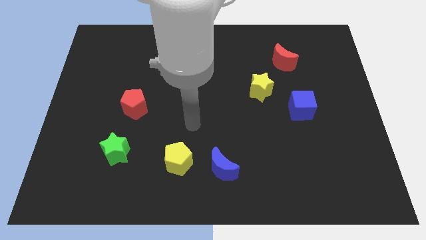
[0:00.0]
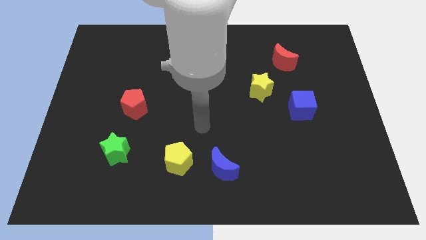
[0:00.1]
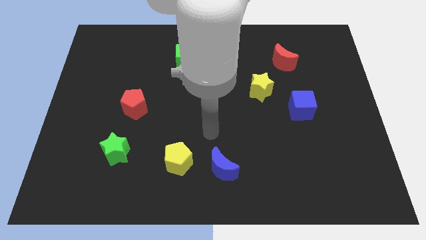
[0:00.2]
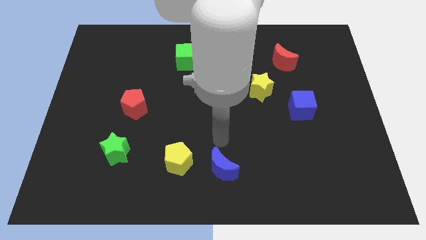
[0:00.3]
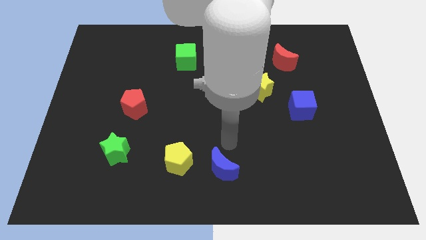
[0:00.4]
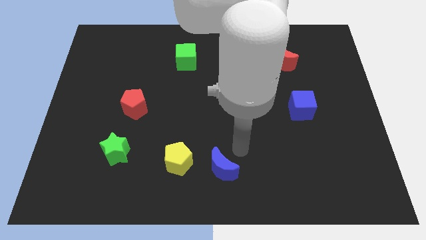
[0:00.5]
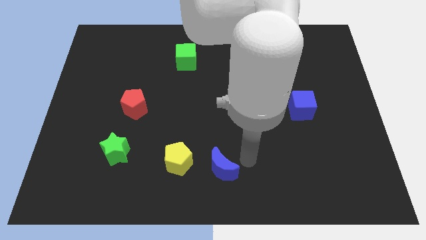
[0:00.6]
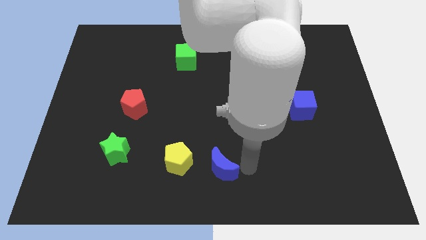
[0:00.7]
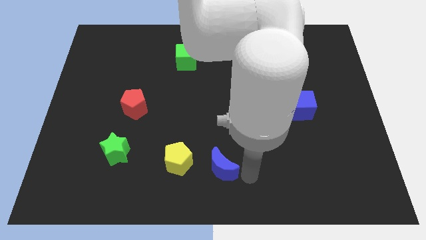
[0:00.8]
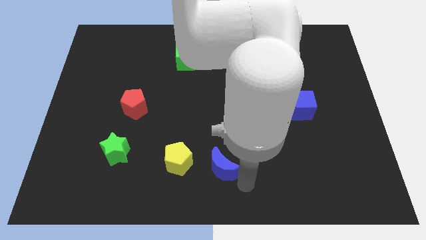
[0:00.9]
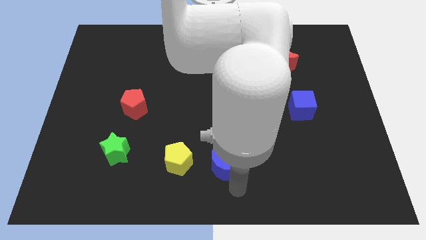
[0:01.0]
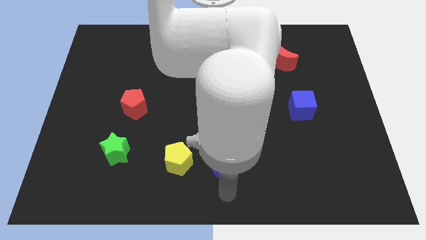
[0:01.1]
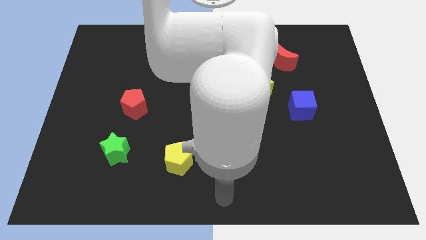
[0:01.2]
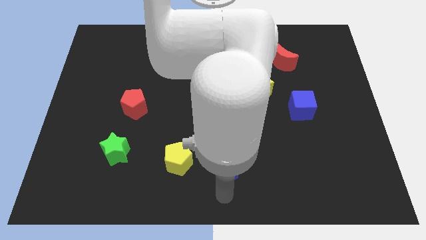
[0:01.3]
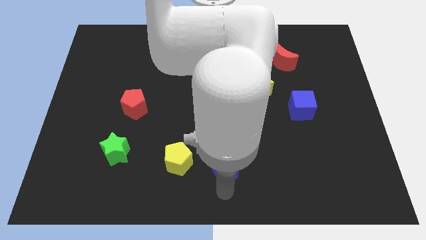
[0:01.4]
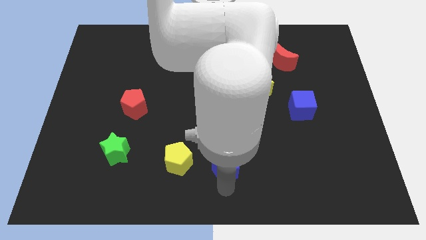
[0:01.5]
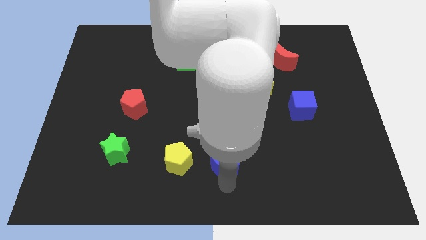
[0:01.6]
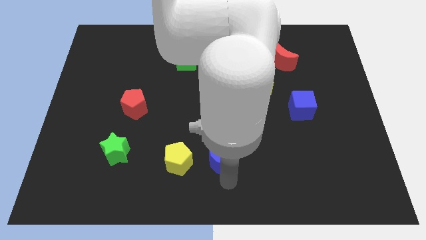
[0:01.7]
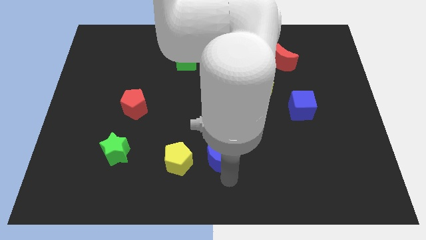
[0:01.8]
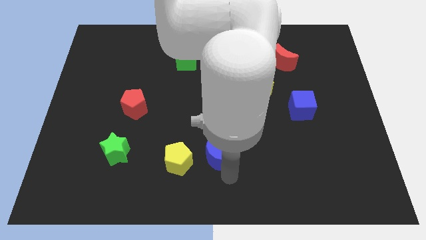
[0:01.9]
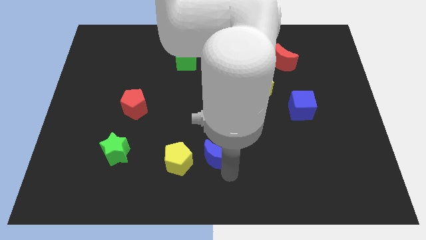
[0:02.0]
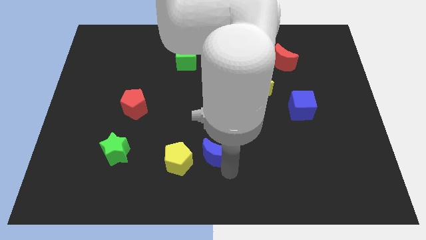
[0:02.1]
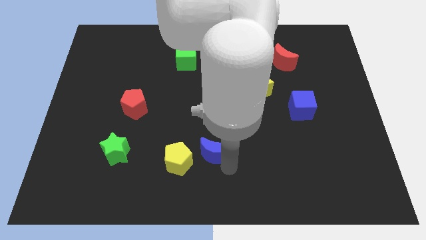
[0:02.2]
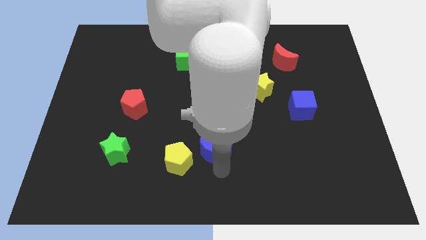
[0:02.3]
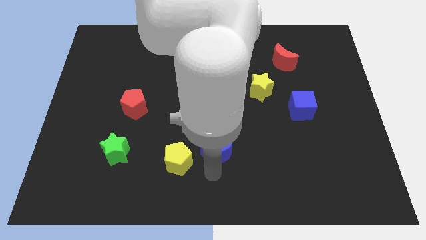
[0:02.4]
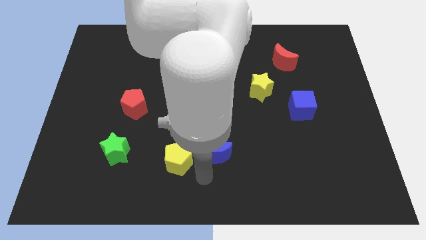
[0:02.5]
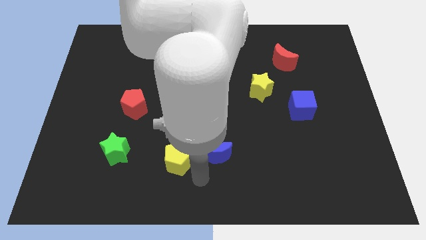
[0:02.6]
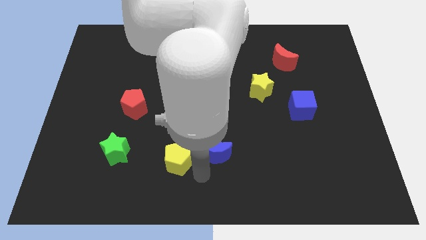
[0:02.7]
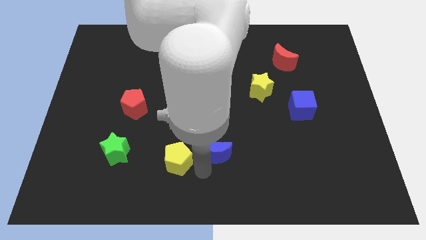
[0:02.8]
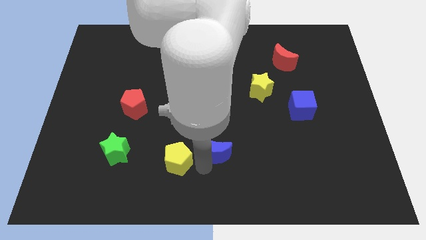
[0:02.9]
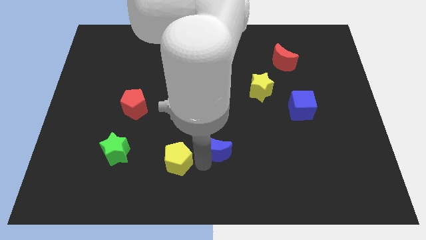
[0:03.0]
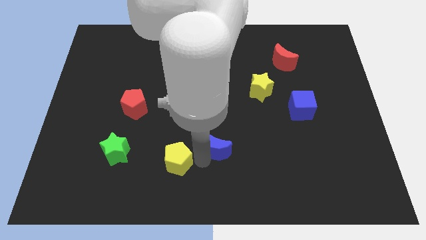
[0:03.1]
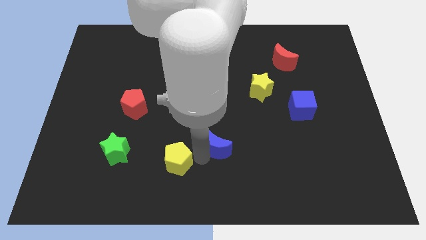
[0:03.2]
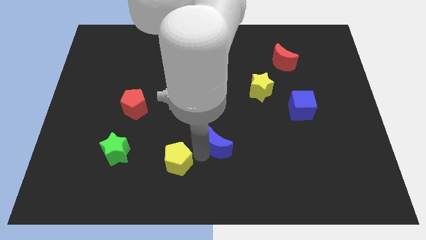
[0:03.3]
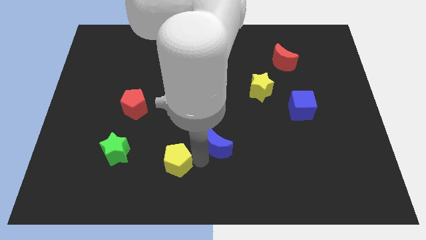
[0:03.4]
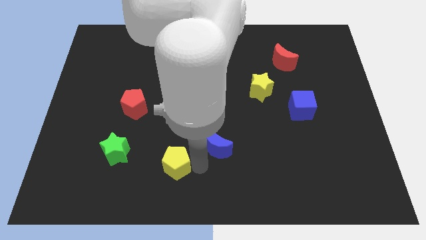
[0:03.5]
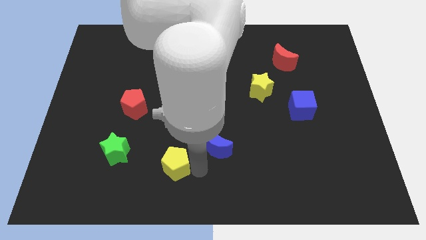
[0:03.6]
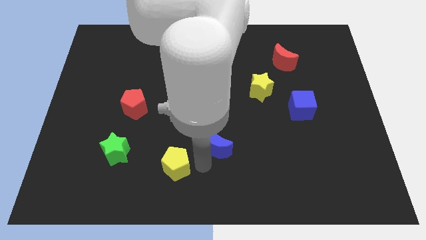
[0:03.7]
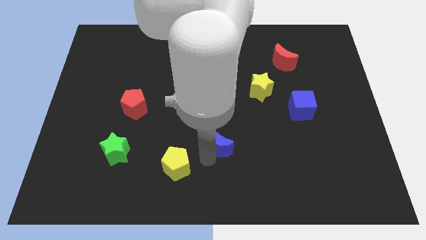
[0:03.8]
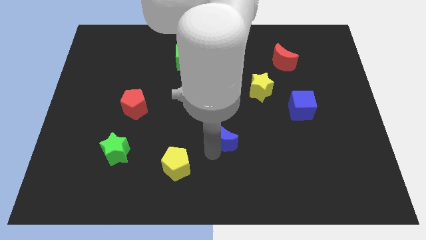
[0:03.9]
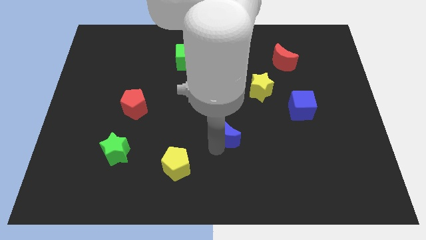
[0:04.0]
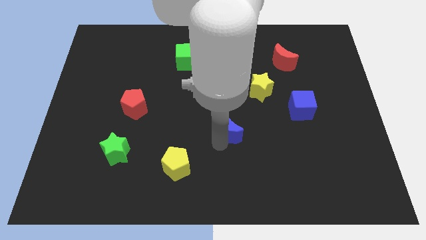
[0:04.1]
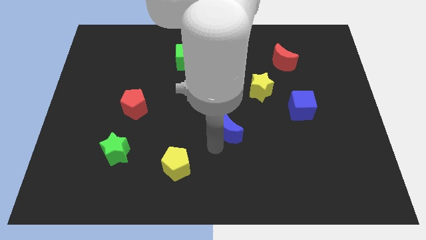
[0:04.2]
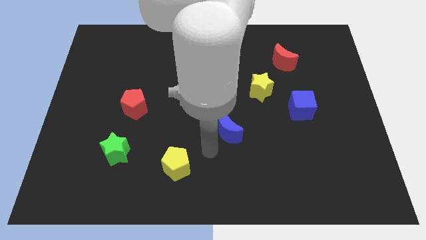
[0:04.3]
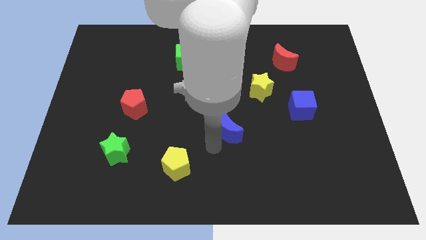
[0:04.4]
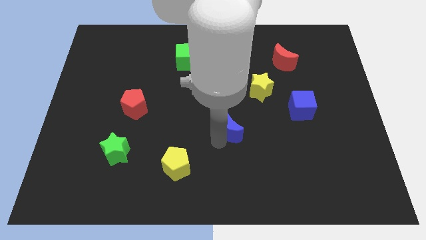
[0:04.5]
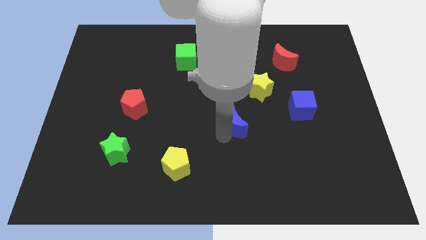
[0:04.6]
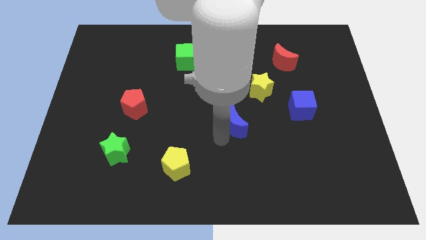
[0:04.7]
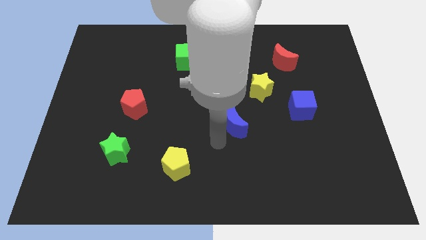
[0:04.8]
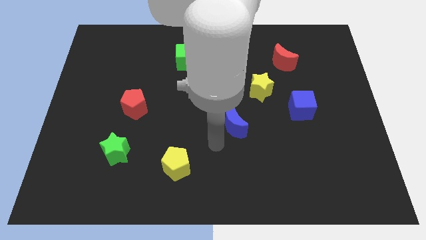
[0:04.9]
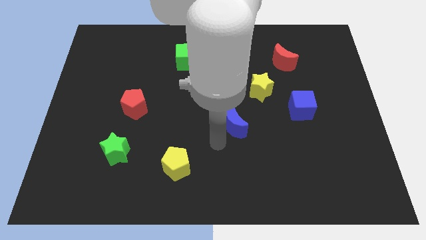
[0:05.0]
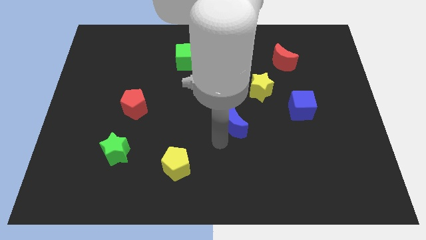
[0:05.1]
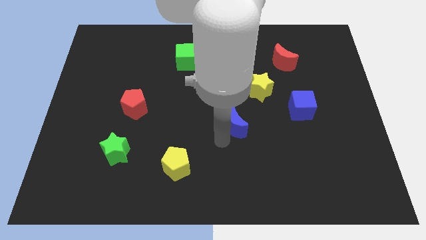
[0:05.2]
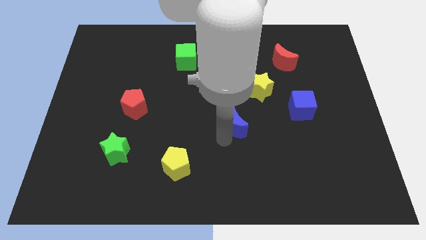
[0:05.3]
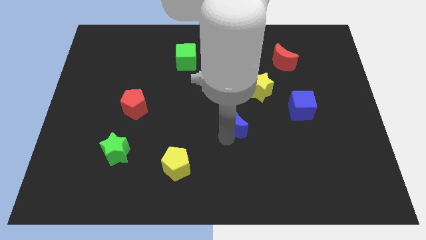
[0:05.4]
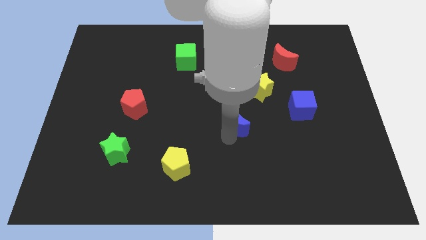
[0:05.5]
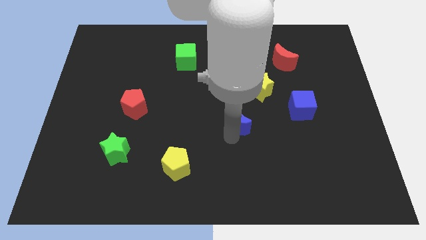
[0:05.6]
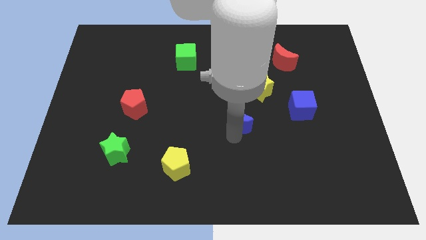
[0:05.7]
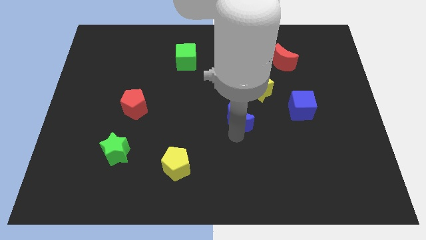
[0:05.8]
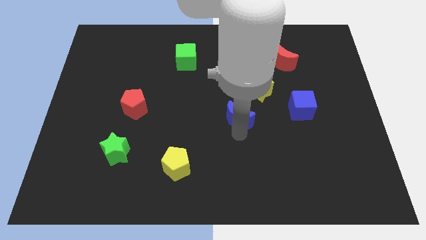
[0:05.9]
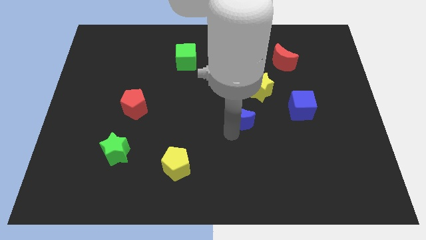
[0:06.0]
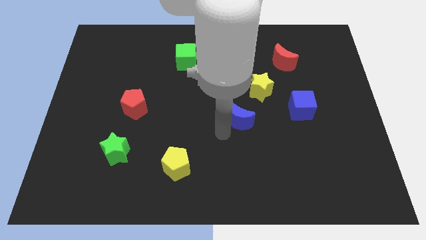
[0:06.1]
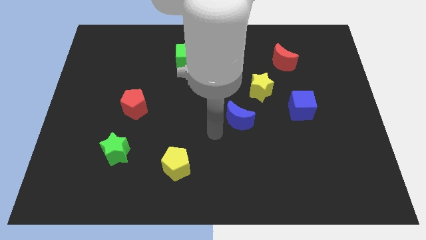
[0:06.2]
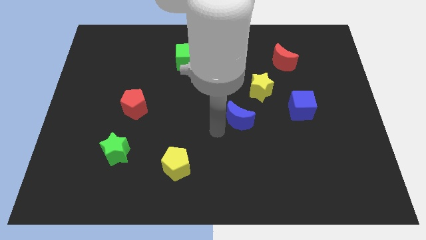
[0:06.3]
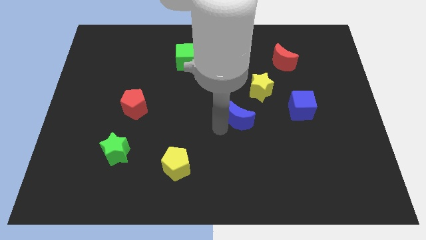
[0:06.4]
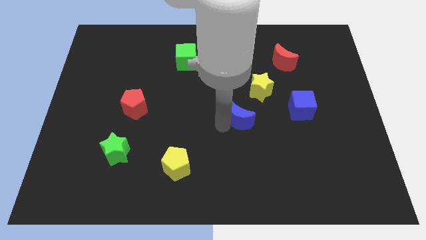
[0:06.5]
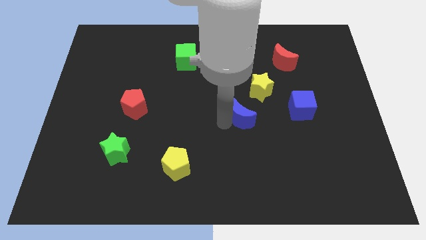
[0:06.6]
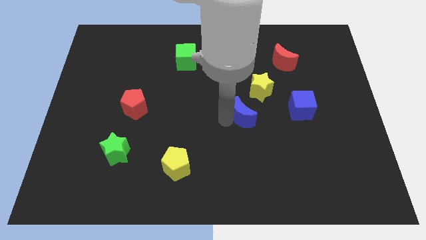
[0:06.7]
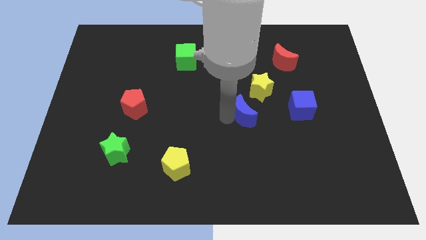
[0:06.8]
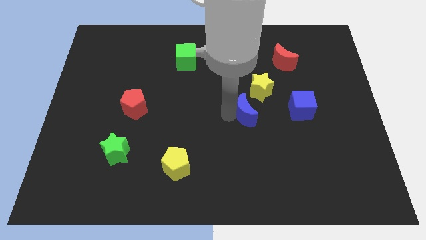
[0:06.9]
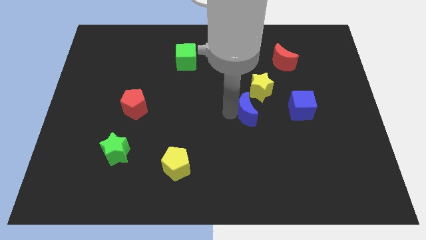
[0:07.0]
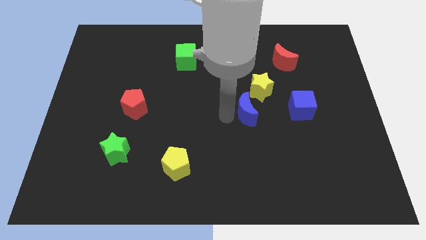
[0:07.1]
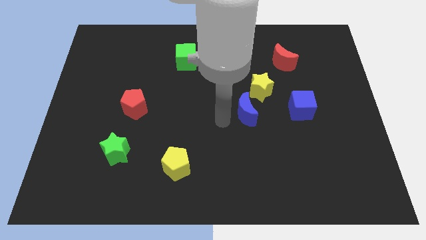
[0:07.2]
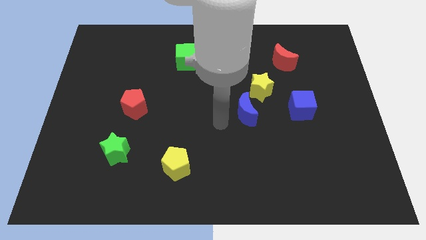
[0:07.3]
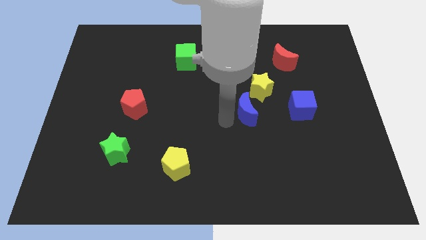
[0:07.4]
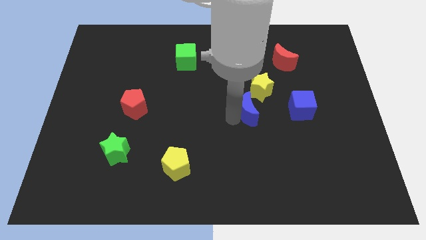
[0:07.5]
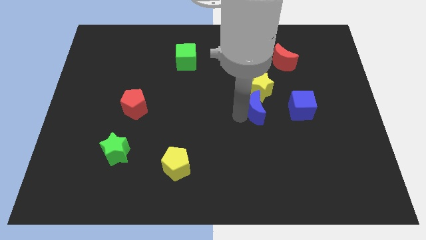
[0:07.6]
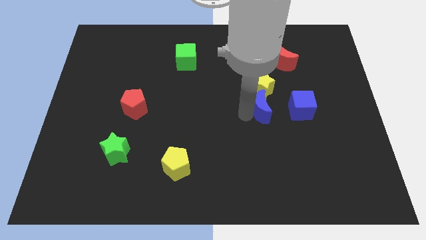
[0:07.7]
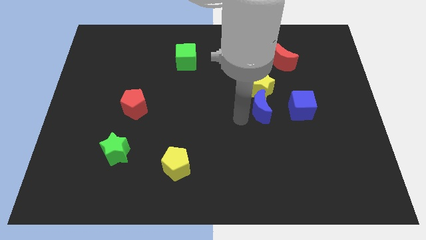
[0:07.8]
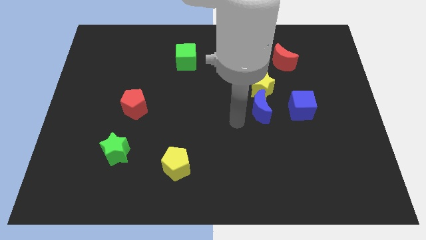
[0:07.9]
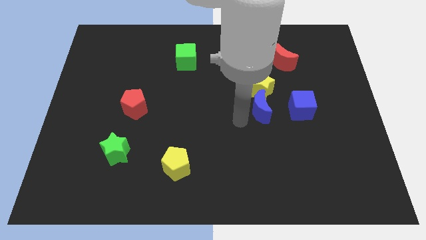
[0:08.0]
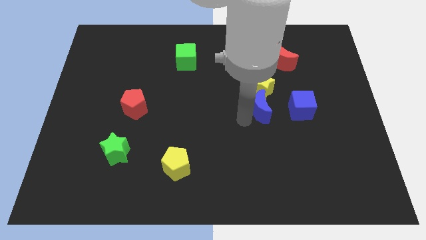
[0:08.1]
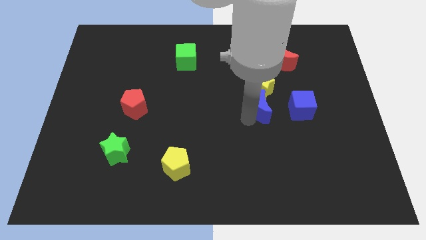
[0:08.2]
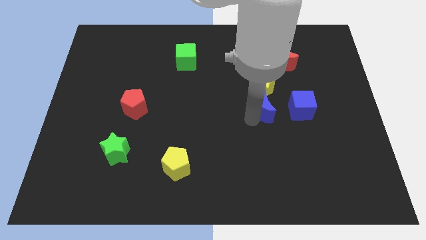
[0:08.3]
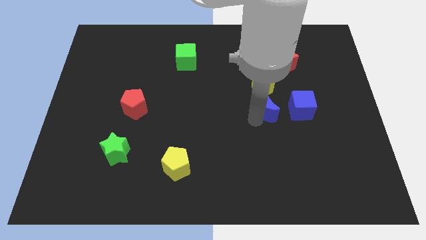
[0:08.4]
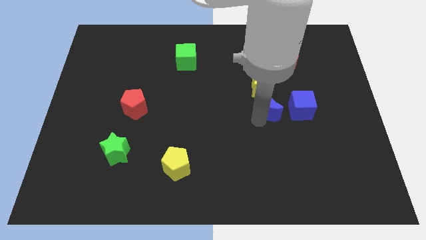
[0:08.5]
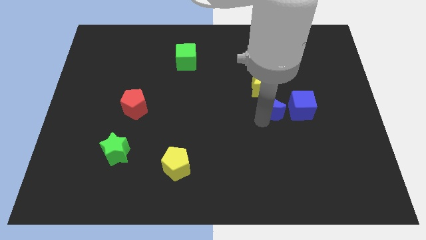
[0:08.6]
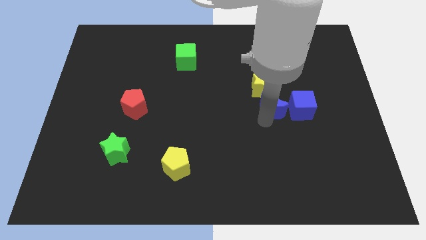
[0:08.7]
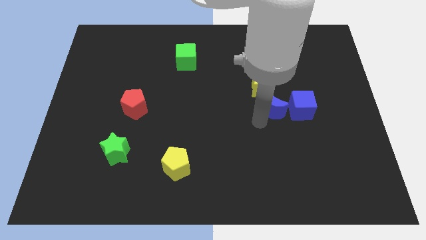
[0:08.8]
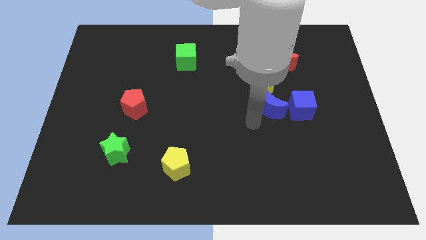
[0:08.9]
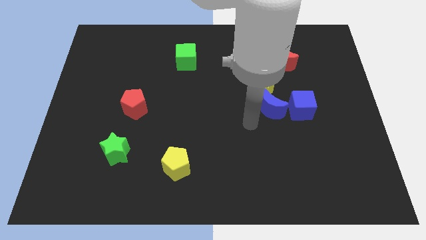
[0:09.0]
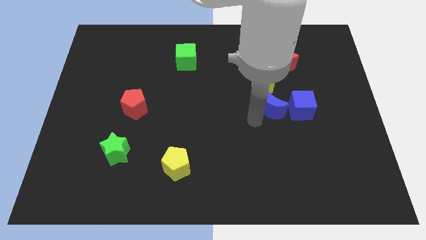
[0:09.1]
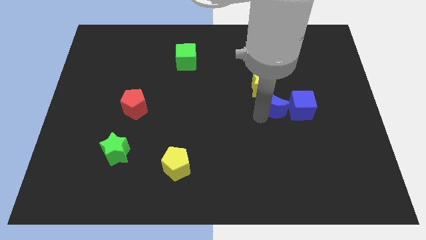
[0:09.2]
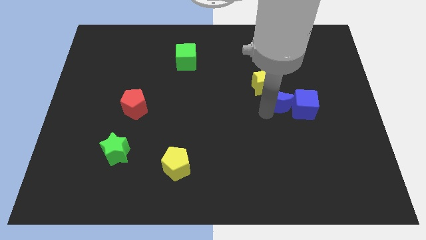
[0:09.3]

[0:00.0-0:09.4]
move the blue moon up and right diagonally
